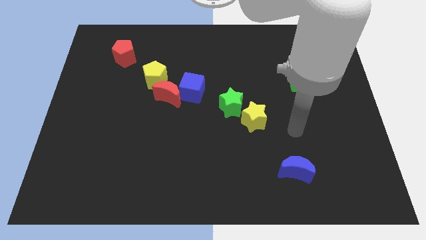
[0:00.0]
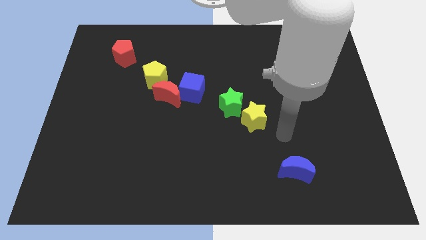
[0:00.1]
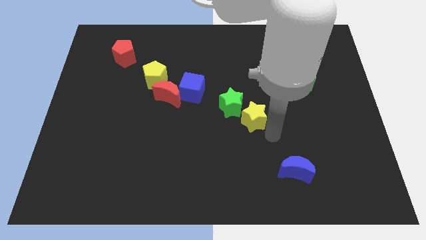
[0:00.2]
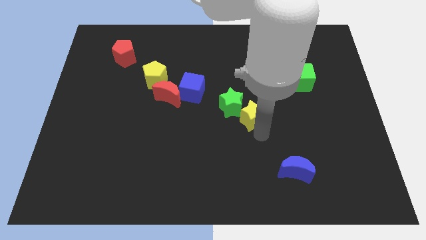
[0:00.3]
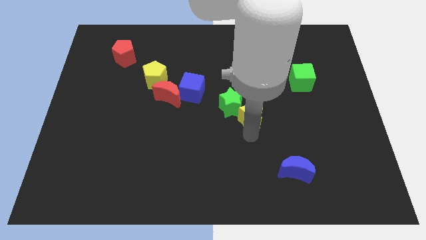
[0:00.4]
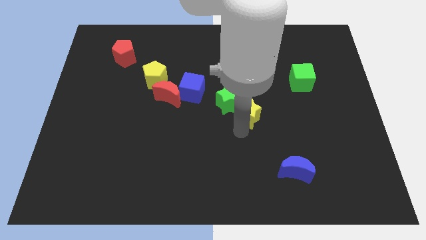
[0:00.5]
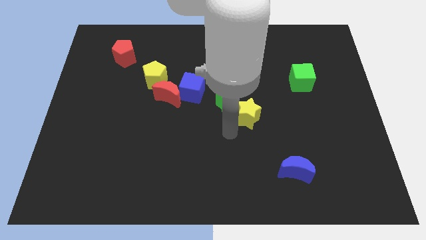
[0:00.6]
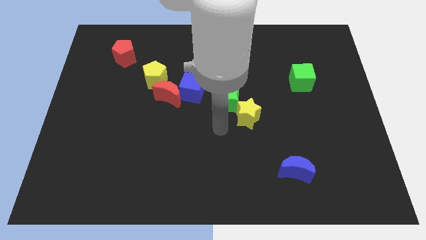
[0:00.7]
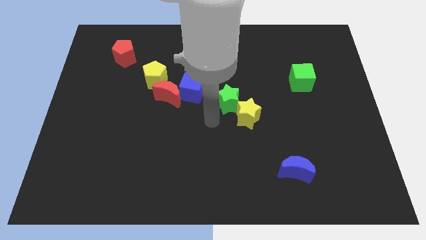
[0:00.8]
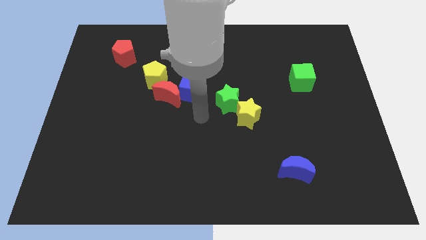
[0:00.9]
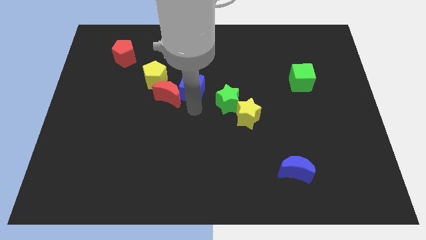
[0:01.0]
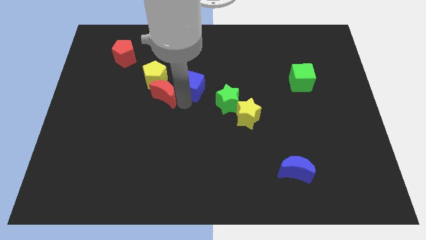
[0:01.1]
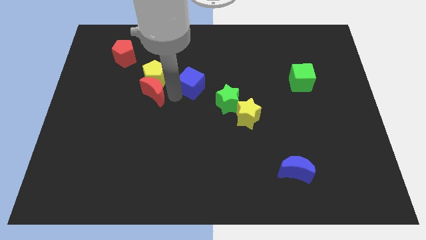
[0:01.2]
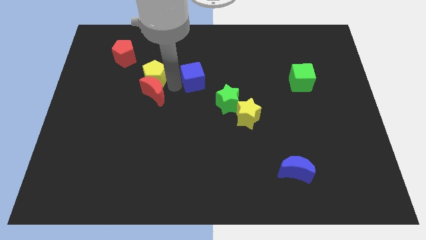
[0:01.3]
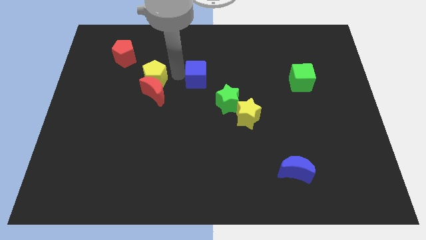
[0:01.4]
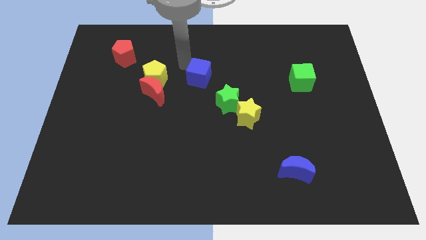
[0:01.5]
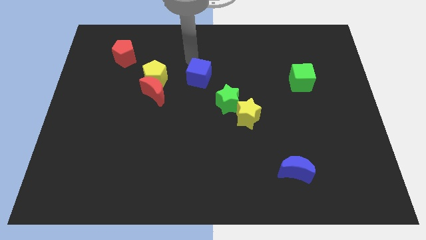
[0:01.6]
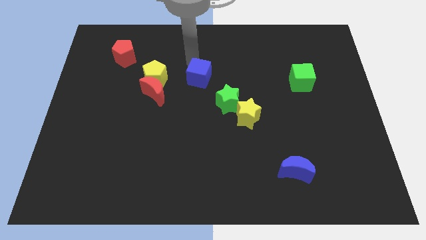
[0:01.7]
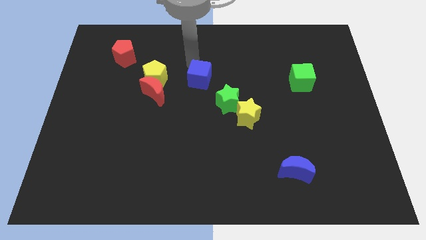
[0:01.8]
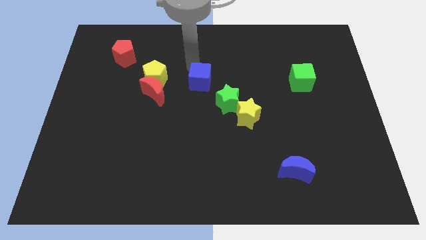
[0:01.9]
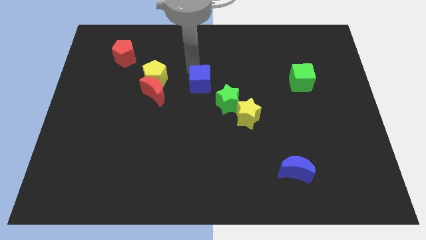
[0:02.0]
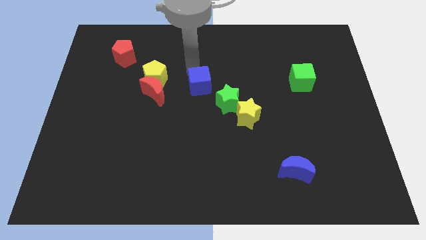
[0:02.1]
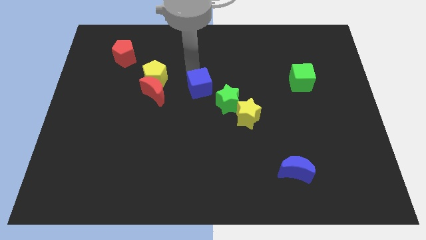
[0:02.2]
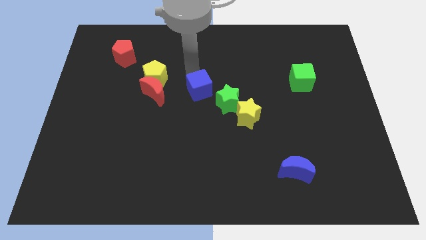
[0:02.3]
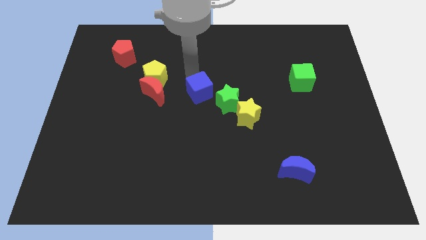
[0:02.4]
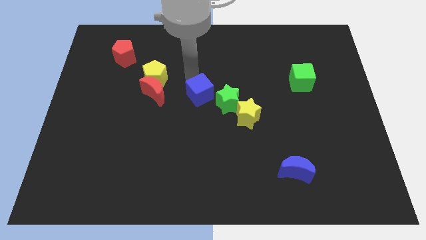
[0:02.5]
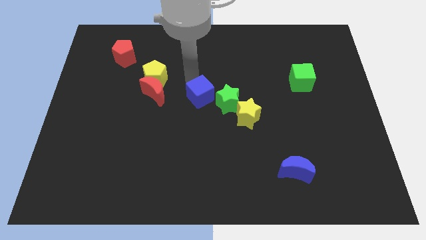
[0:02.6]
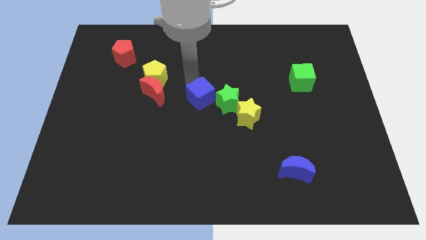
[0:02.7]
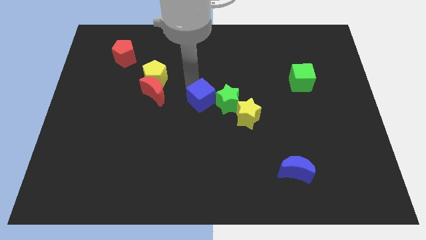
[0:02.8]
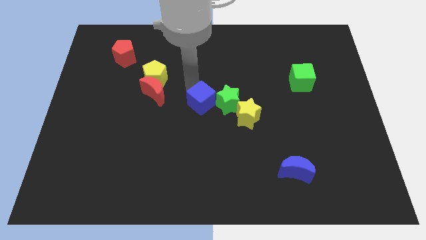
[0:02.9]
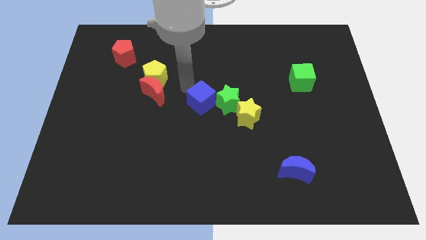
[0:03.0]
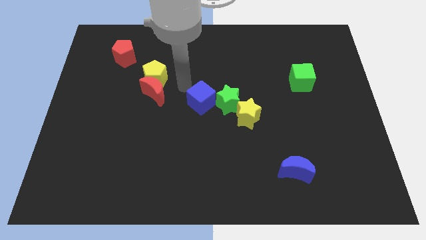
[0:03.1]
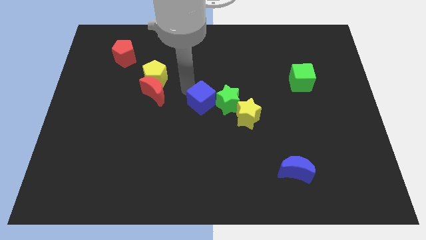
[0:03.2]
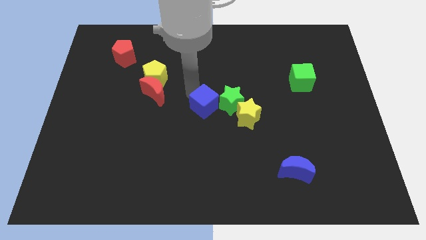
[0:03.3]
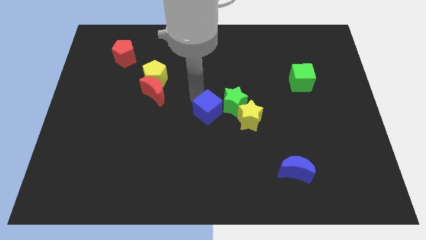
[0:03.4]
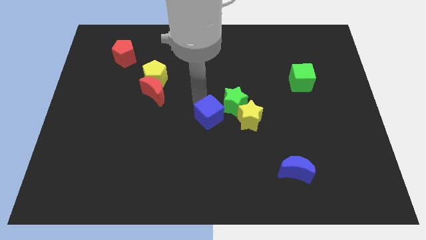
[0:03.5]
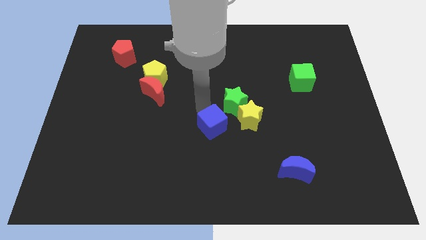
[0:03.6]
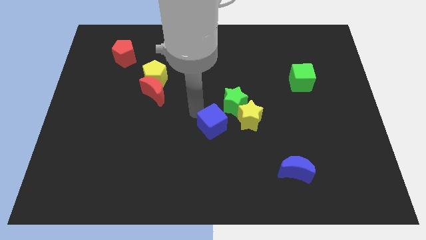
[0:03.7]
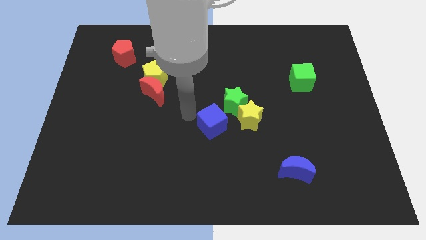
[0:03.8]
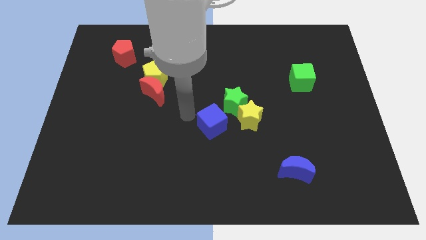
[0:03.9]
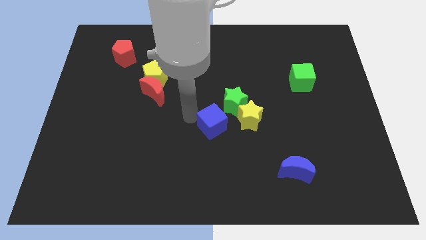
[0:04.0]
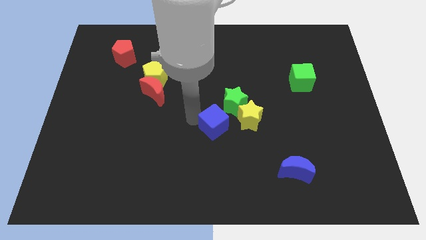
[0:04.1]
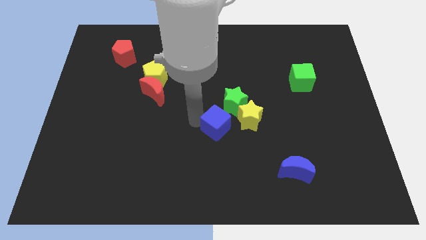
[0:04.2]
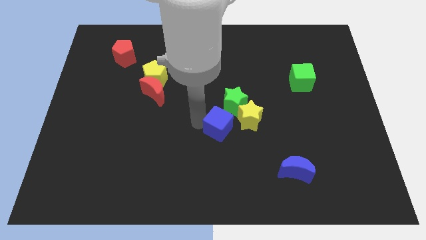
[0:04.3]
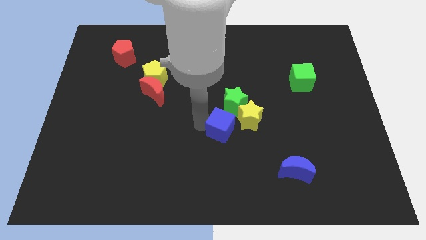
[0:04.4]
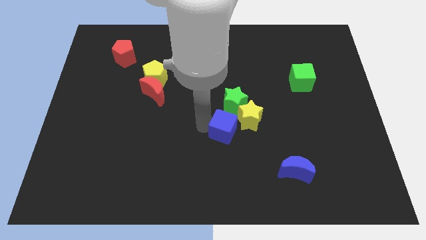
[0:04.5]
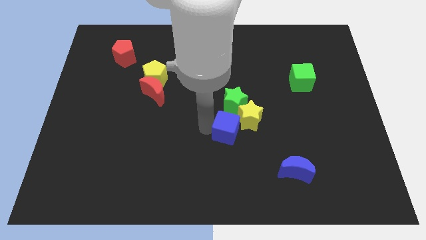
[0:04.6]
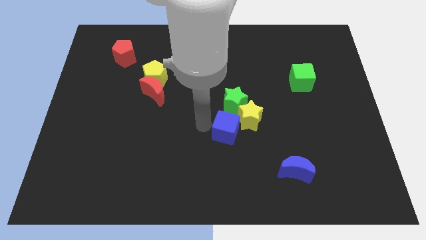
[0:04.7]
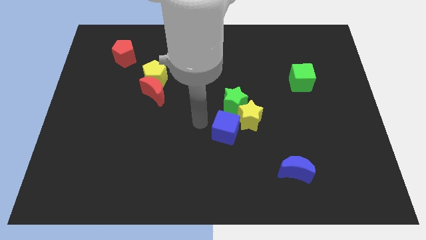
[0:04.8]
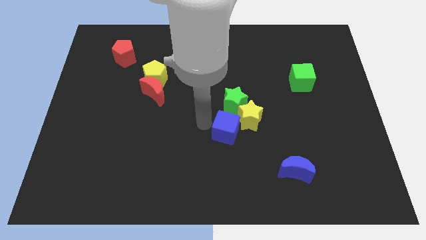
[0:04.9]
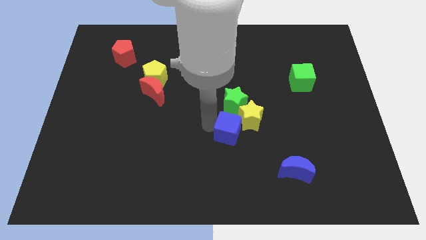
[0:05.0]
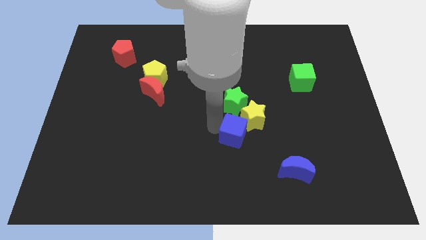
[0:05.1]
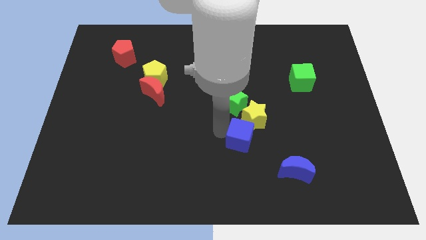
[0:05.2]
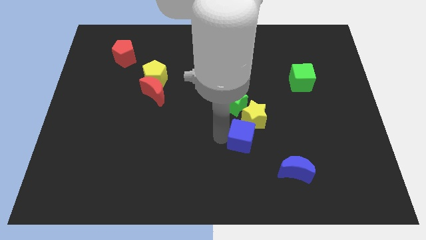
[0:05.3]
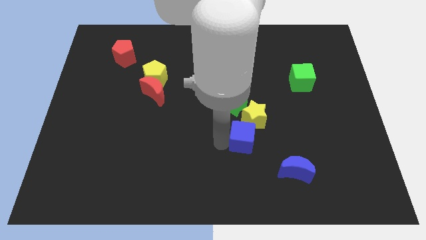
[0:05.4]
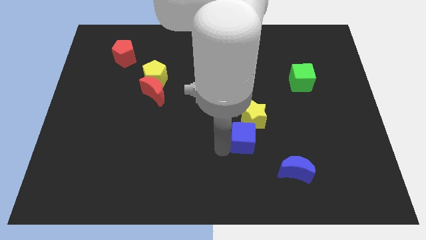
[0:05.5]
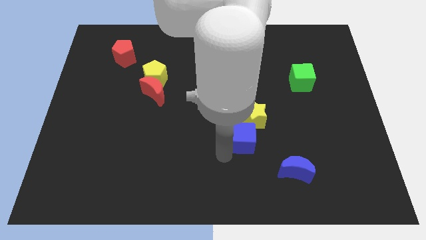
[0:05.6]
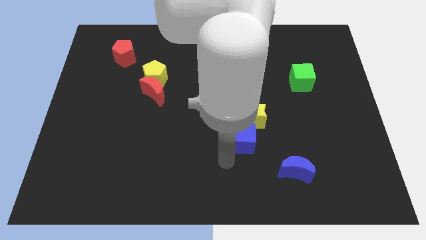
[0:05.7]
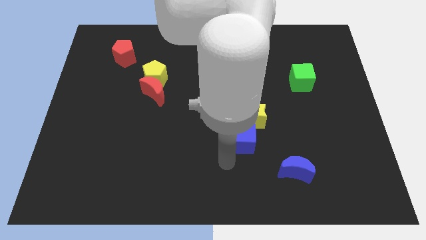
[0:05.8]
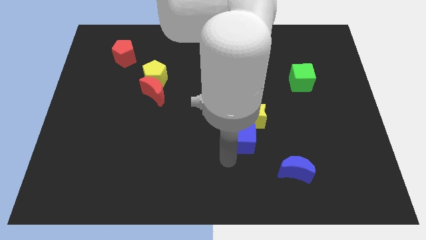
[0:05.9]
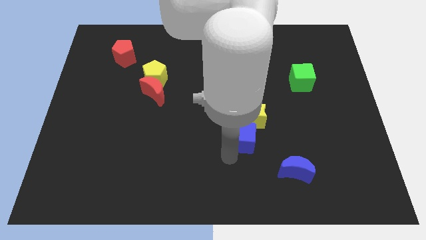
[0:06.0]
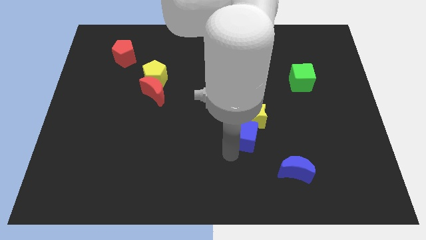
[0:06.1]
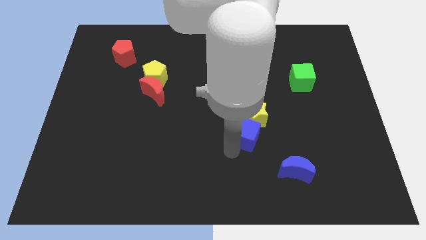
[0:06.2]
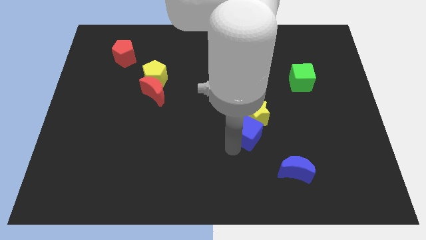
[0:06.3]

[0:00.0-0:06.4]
move the blue cube to the bottom right side of the green star
